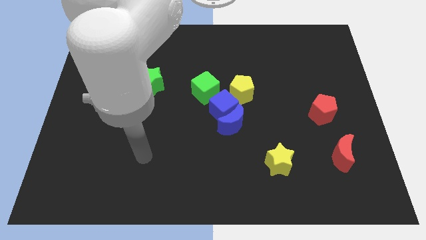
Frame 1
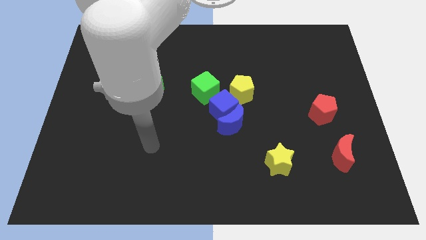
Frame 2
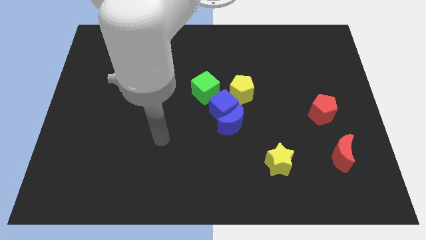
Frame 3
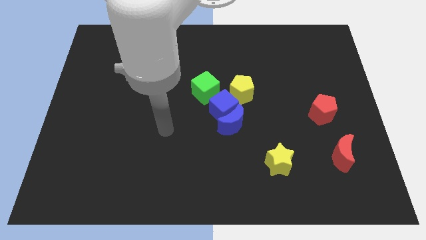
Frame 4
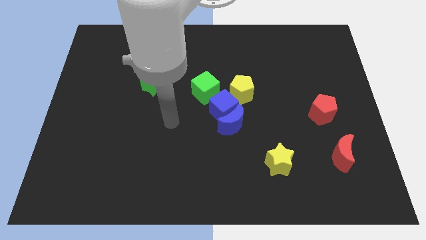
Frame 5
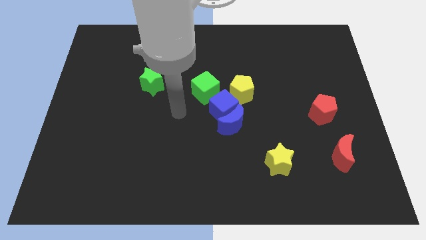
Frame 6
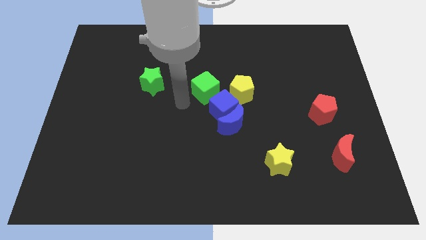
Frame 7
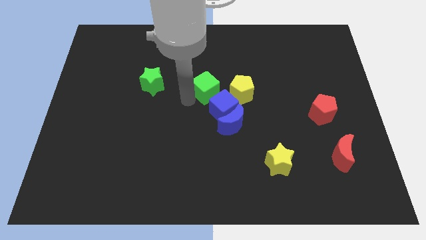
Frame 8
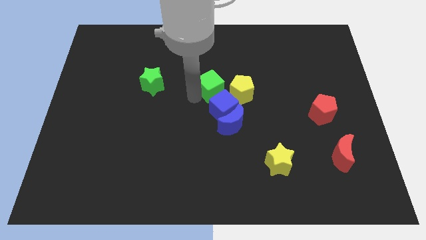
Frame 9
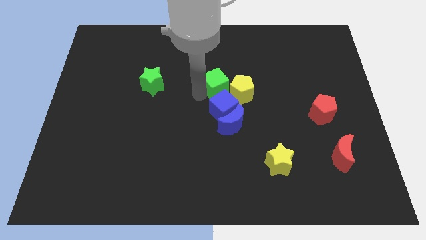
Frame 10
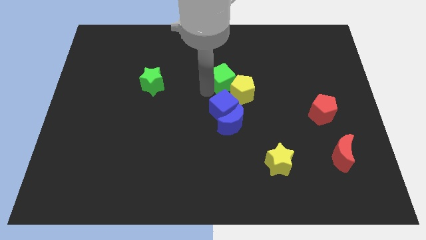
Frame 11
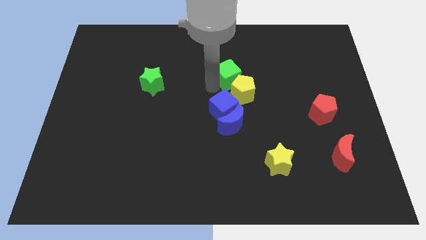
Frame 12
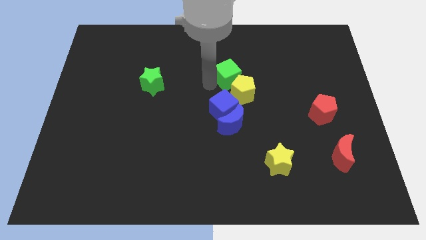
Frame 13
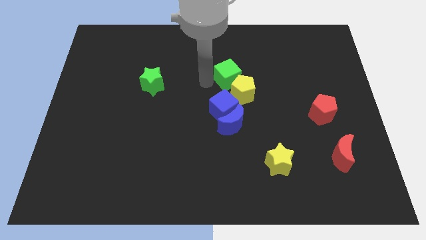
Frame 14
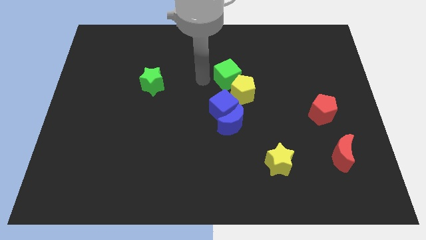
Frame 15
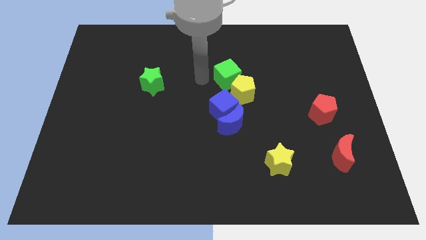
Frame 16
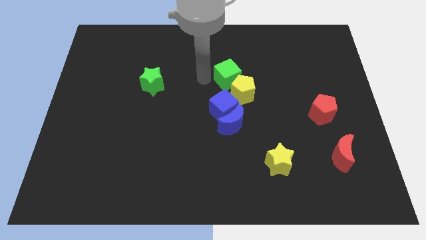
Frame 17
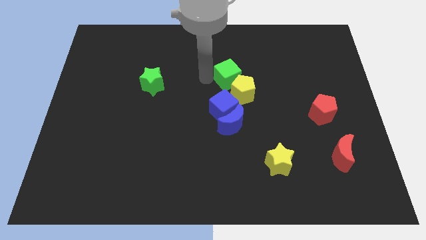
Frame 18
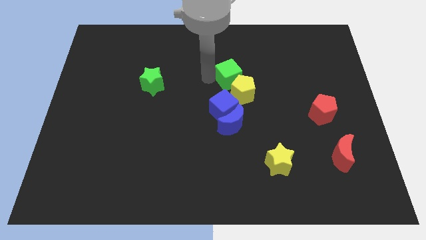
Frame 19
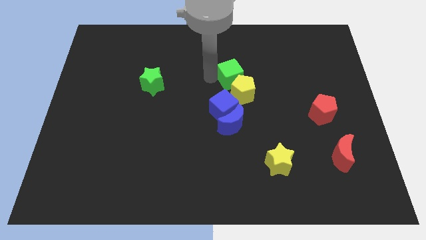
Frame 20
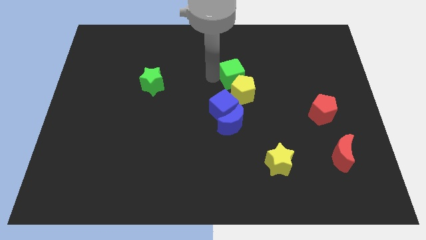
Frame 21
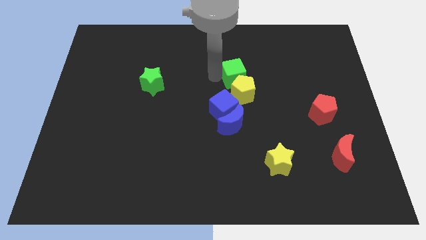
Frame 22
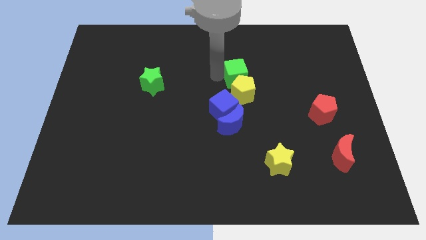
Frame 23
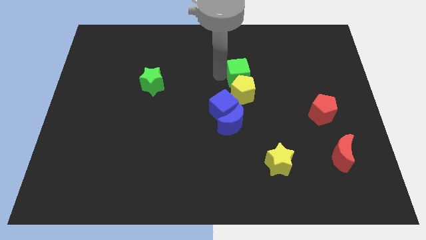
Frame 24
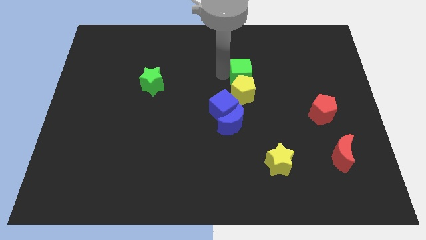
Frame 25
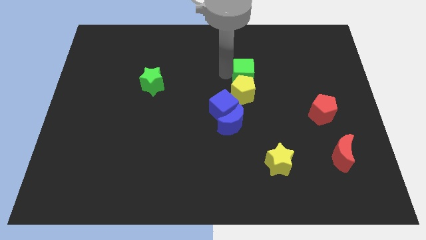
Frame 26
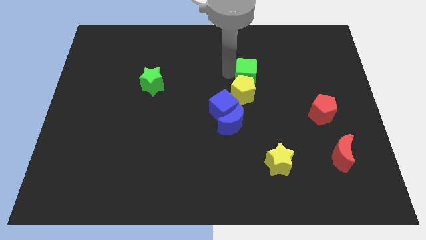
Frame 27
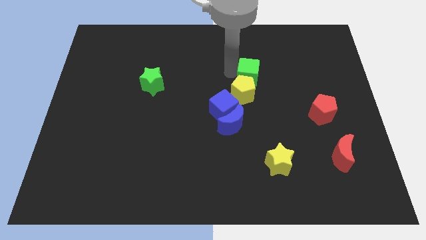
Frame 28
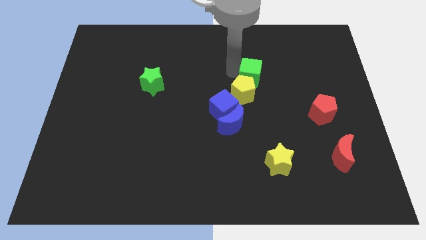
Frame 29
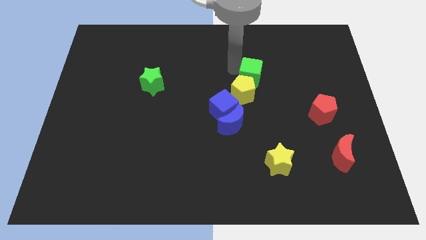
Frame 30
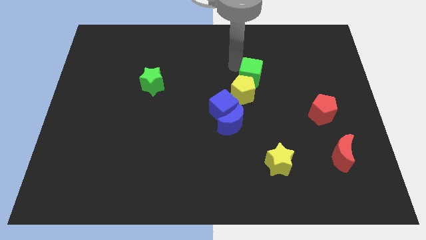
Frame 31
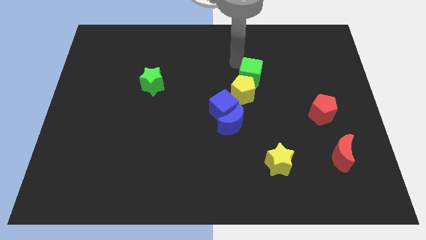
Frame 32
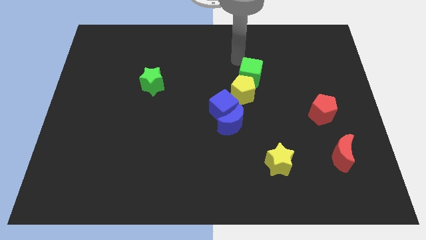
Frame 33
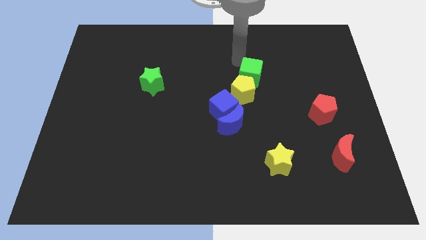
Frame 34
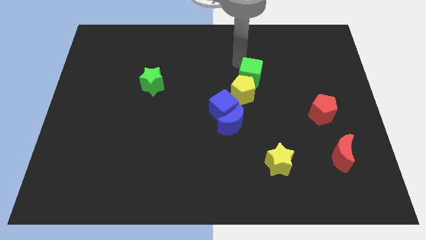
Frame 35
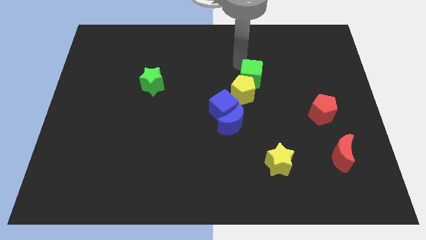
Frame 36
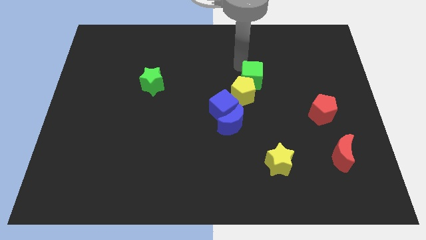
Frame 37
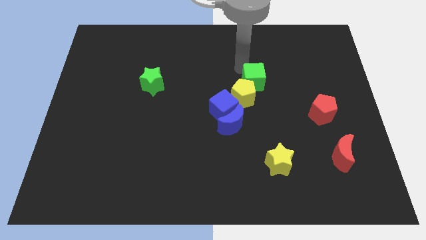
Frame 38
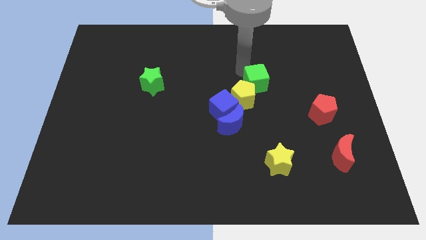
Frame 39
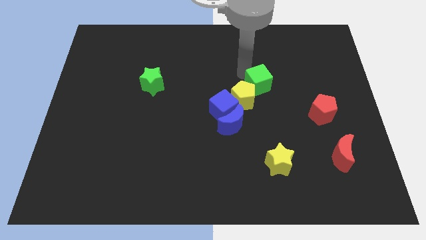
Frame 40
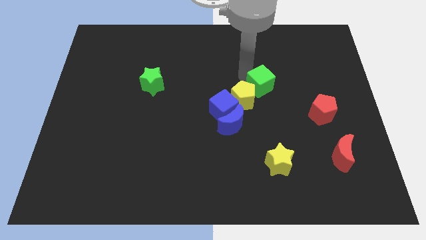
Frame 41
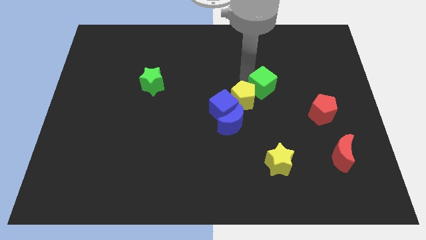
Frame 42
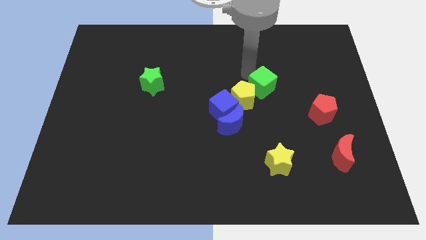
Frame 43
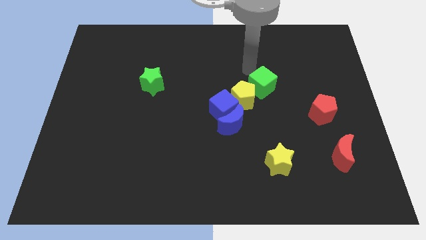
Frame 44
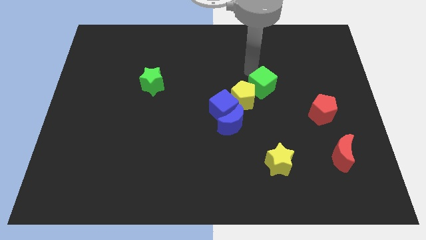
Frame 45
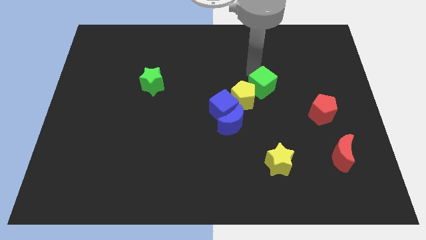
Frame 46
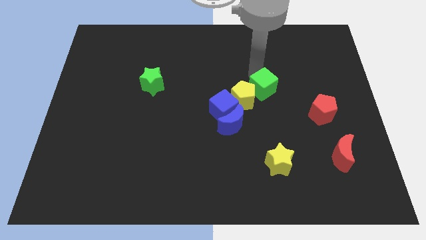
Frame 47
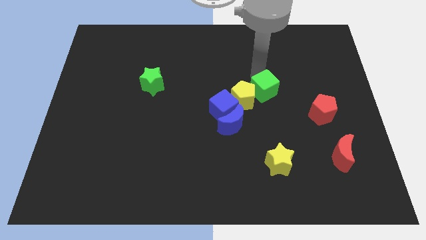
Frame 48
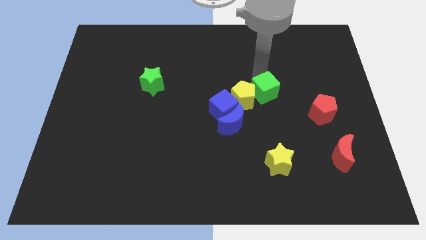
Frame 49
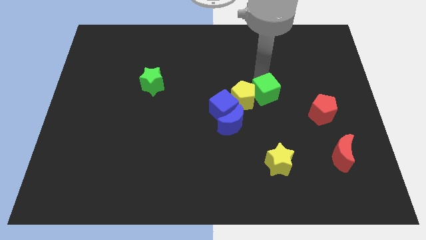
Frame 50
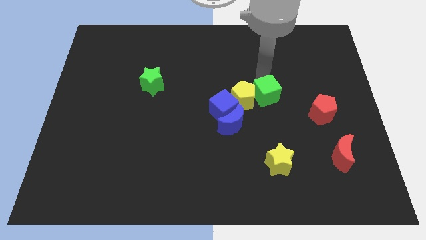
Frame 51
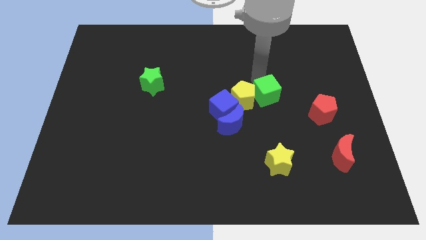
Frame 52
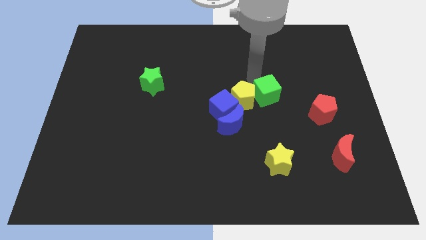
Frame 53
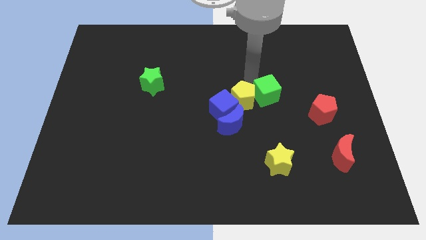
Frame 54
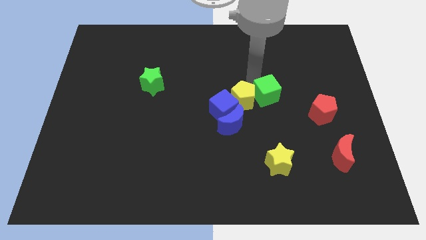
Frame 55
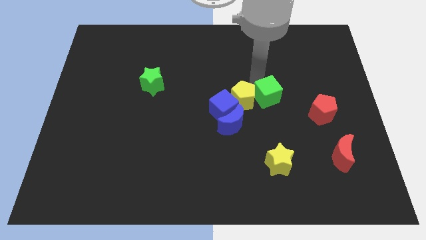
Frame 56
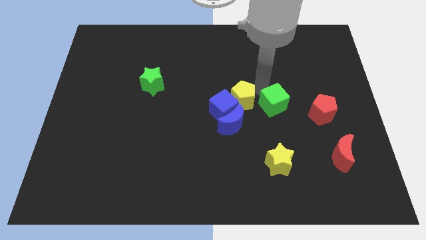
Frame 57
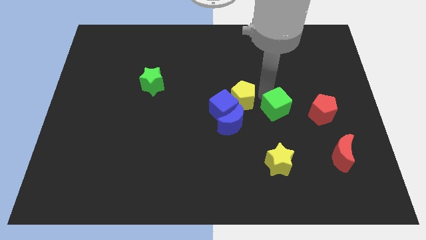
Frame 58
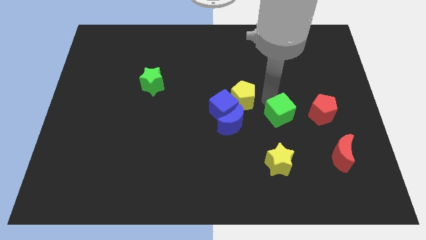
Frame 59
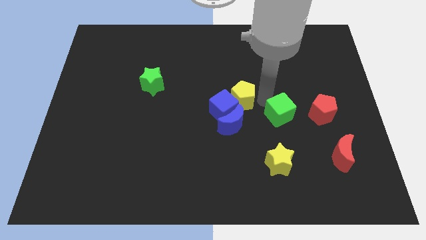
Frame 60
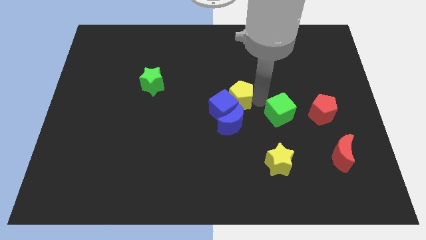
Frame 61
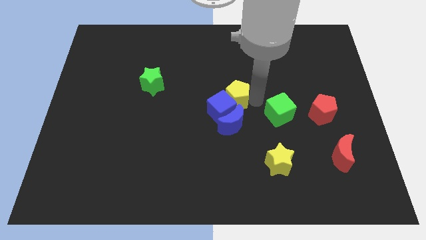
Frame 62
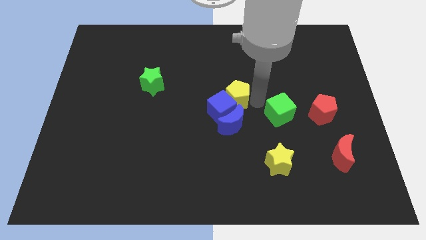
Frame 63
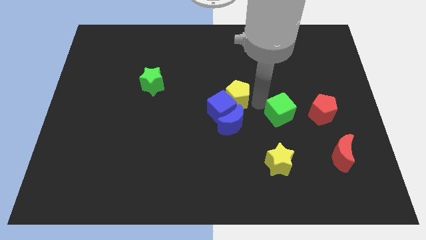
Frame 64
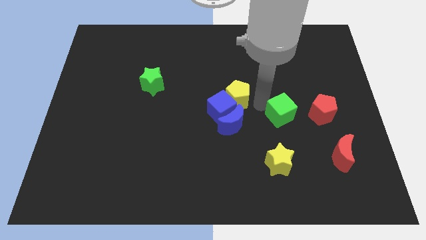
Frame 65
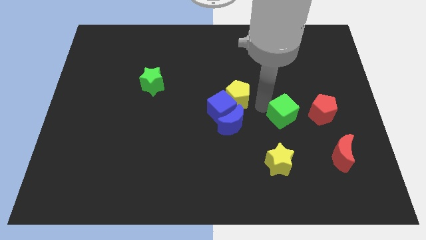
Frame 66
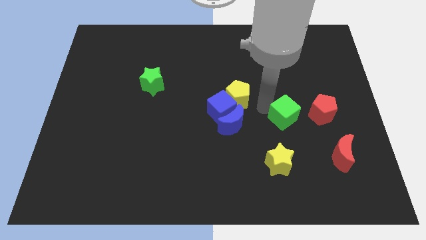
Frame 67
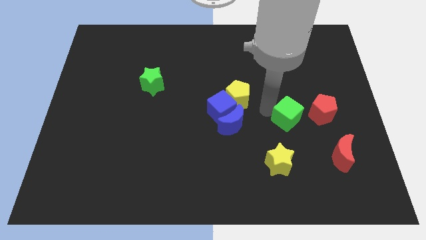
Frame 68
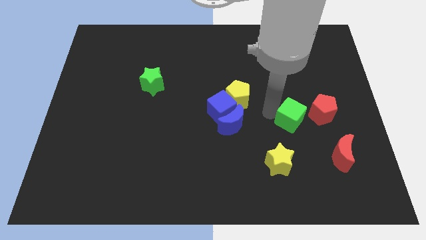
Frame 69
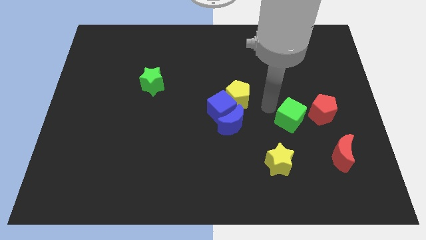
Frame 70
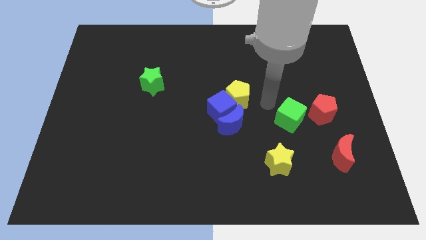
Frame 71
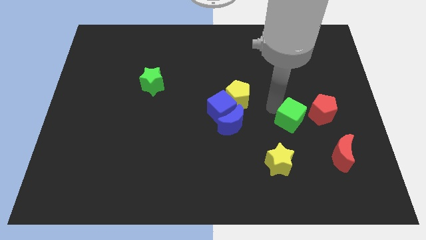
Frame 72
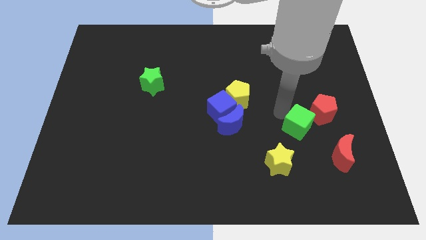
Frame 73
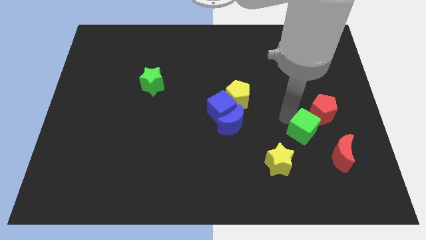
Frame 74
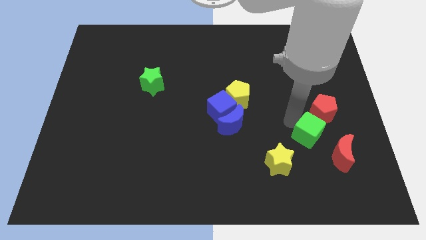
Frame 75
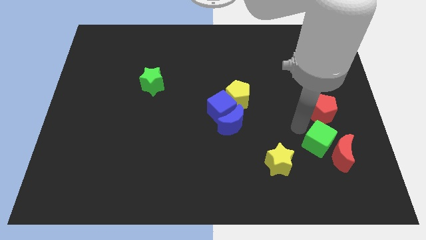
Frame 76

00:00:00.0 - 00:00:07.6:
put the green cube close to the red moon
